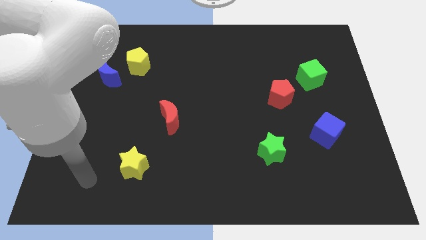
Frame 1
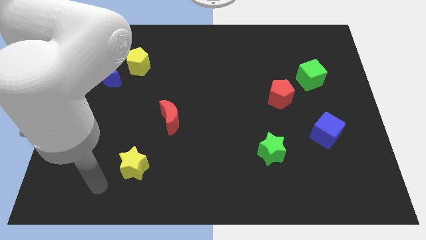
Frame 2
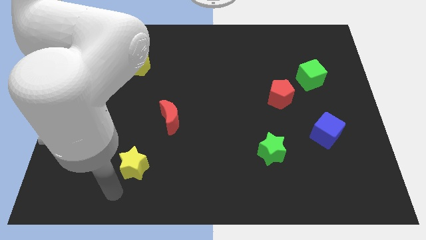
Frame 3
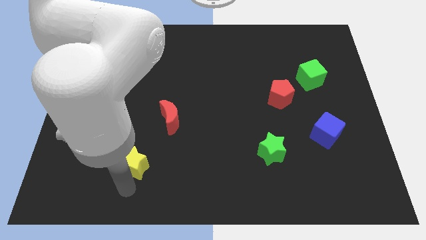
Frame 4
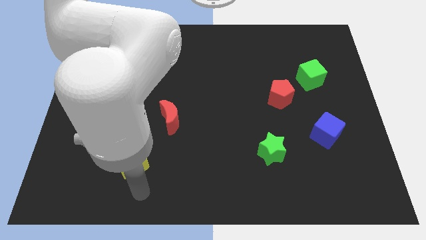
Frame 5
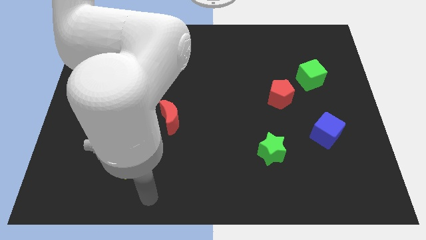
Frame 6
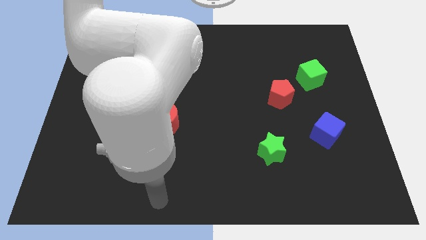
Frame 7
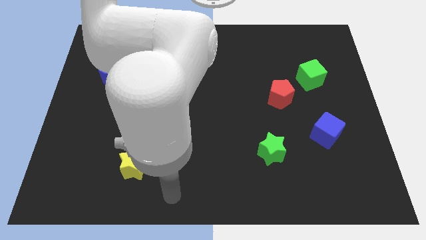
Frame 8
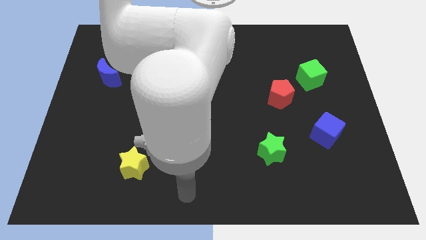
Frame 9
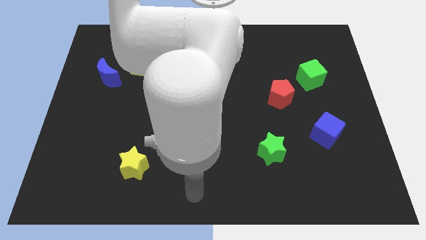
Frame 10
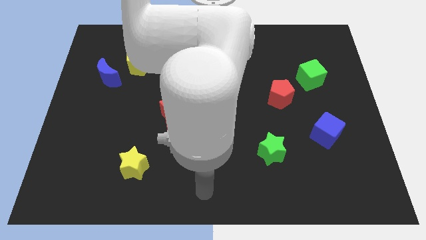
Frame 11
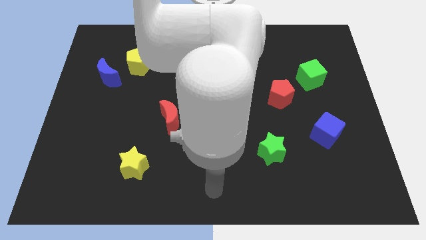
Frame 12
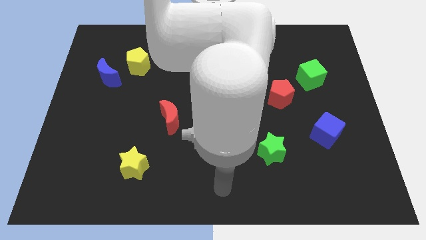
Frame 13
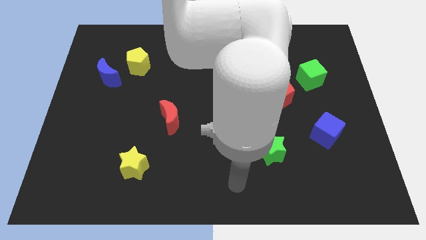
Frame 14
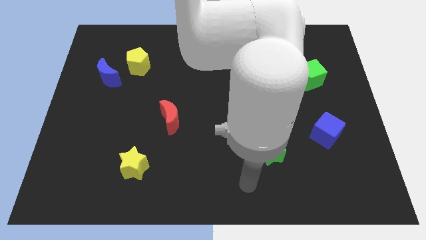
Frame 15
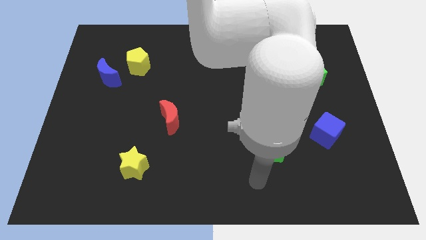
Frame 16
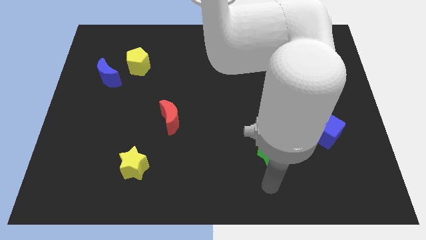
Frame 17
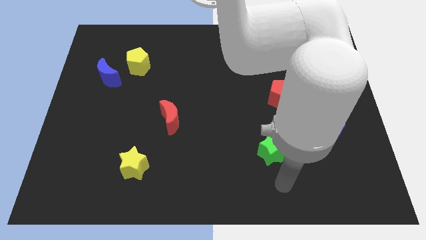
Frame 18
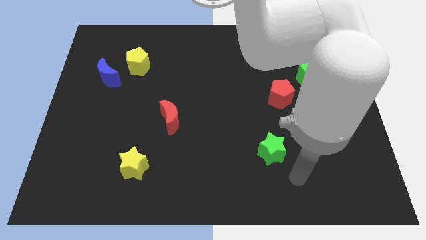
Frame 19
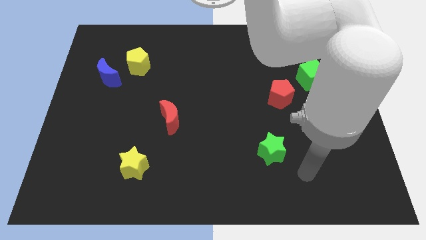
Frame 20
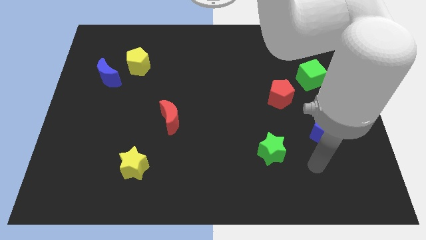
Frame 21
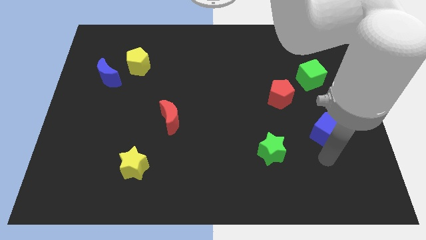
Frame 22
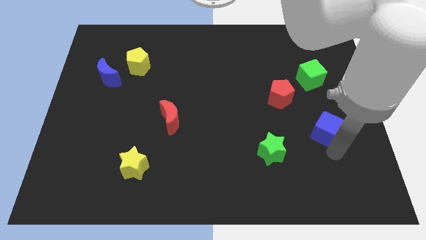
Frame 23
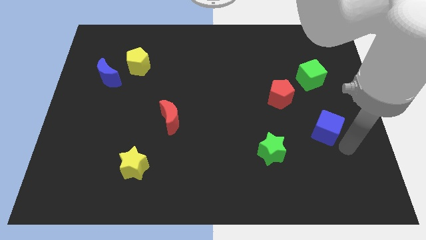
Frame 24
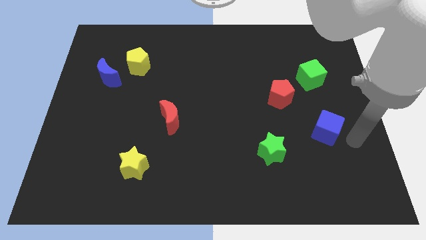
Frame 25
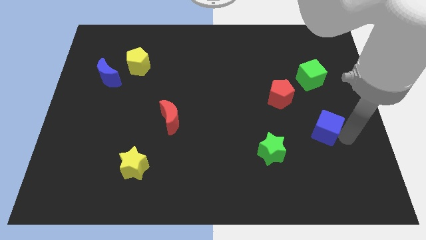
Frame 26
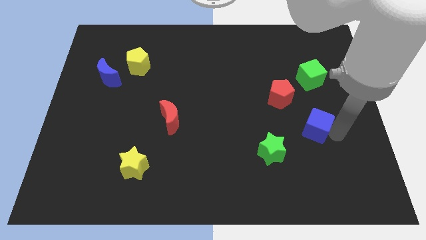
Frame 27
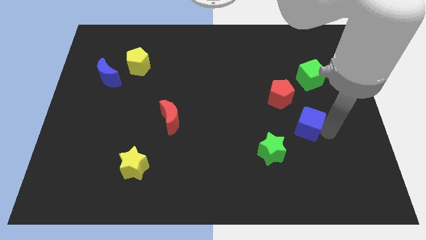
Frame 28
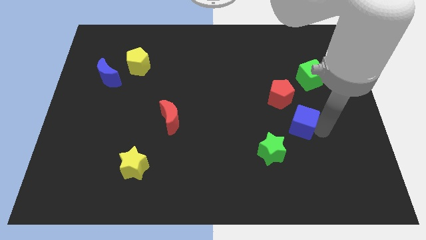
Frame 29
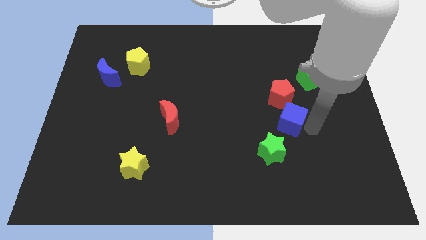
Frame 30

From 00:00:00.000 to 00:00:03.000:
push the blue cube somewhat up and to the left

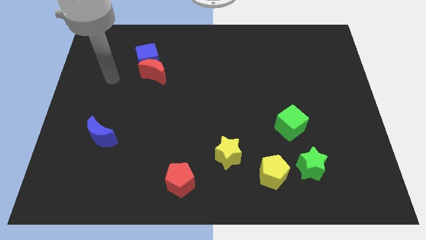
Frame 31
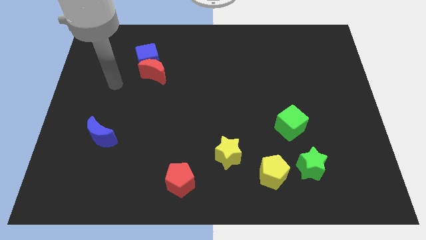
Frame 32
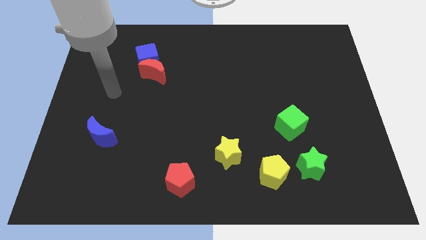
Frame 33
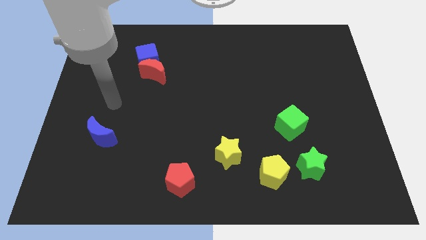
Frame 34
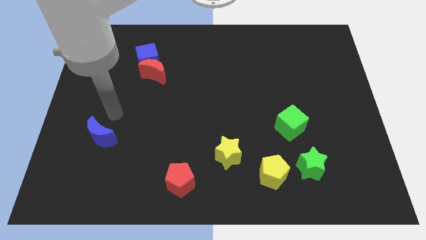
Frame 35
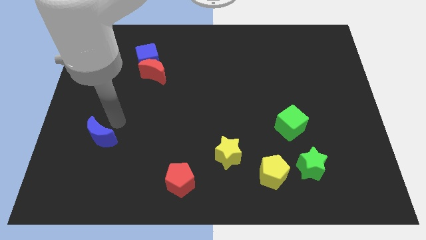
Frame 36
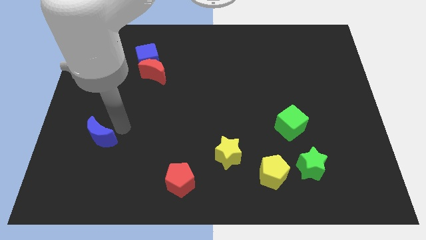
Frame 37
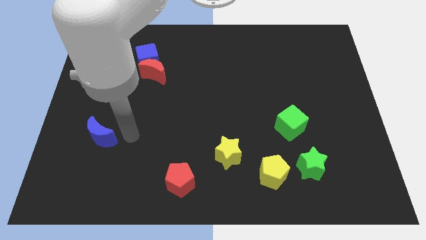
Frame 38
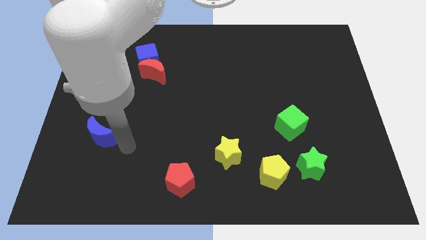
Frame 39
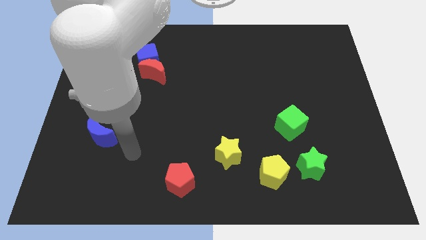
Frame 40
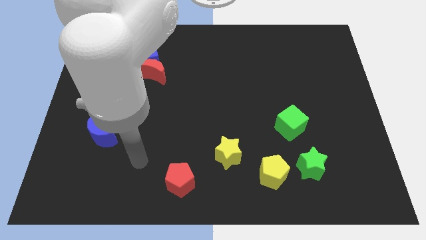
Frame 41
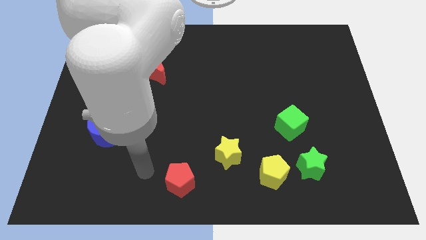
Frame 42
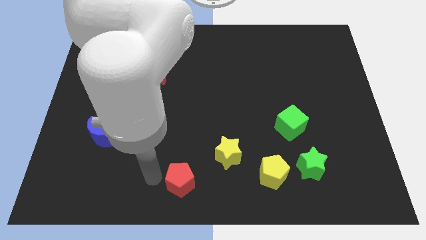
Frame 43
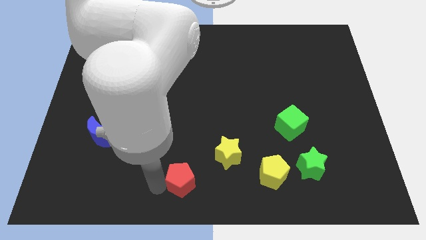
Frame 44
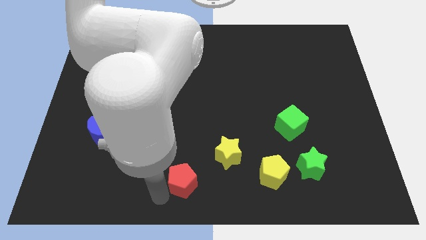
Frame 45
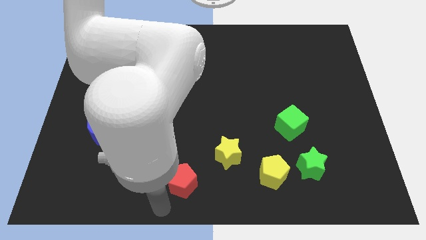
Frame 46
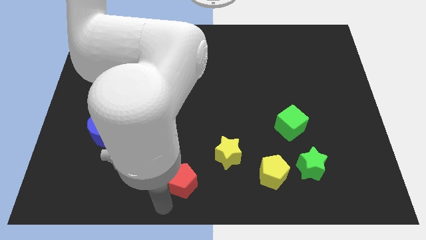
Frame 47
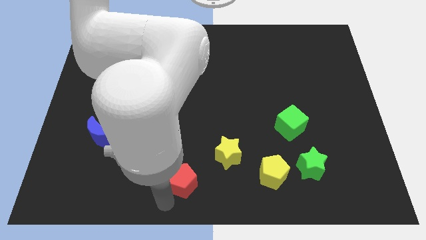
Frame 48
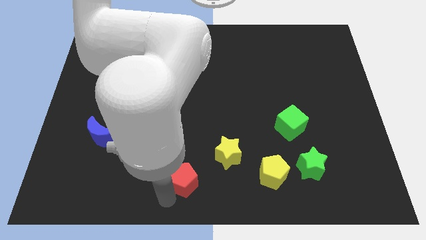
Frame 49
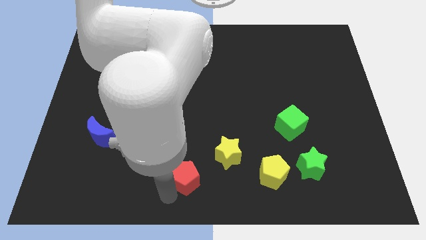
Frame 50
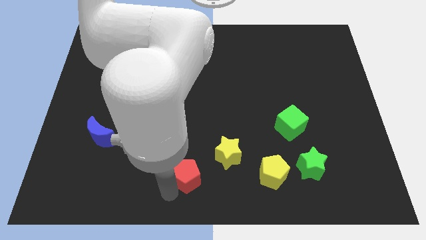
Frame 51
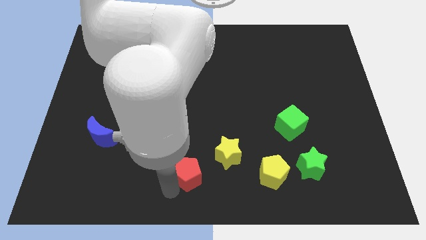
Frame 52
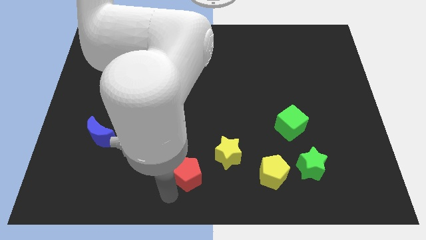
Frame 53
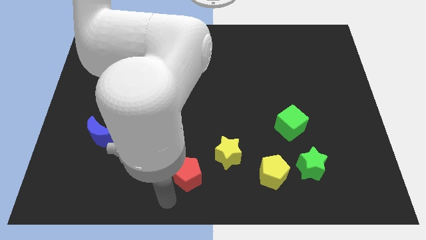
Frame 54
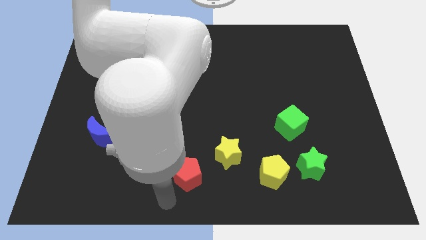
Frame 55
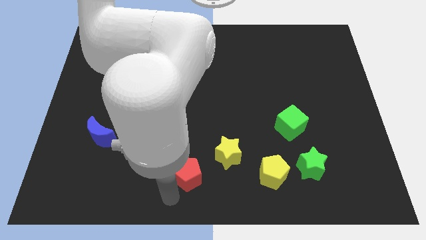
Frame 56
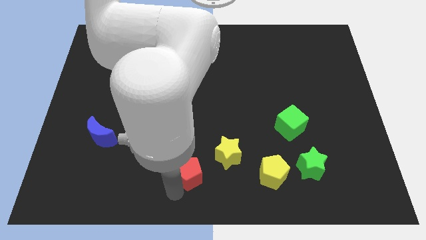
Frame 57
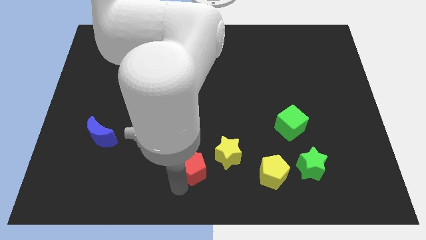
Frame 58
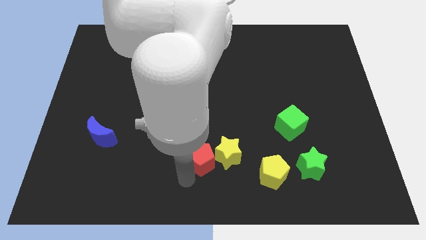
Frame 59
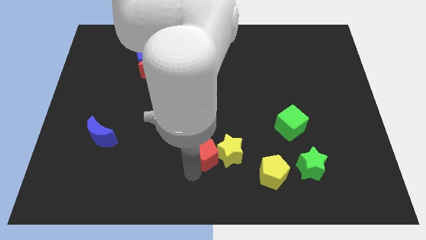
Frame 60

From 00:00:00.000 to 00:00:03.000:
push the red pentagon slightly diagonally up and right

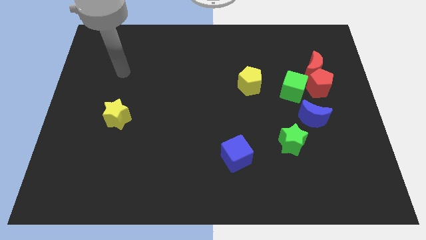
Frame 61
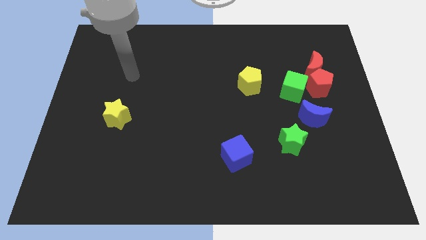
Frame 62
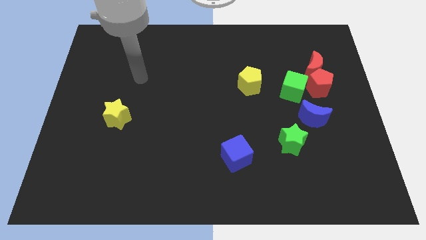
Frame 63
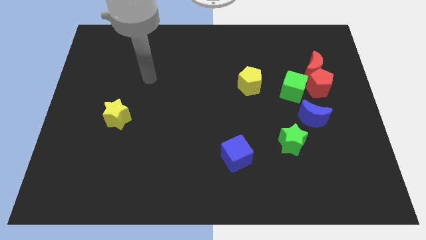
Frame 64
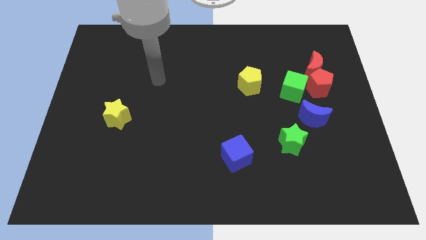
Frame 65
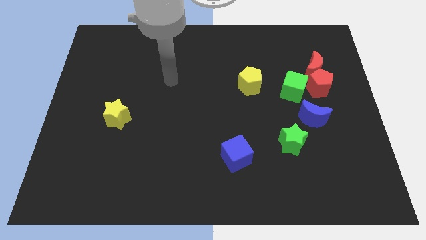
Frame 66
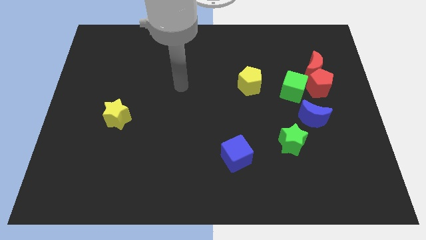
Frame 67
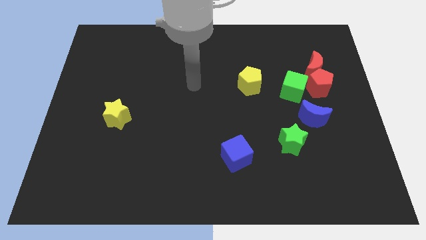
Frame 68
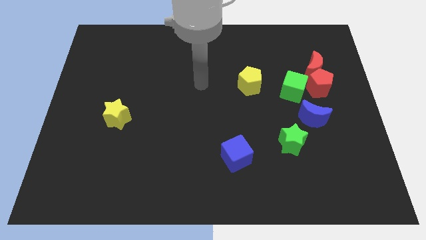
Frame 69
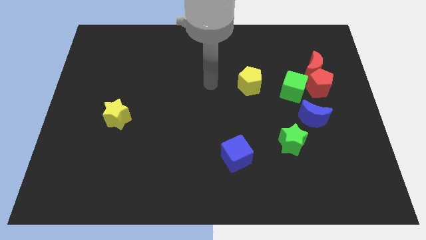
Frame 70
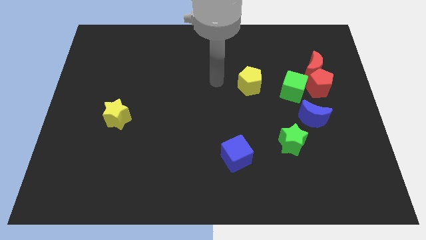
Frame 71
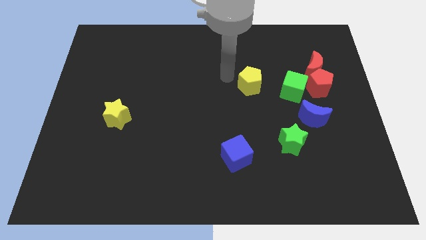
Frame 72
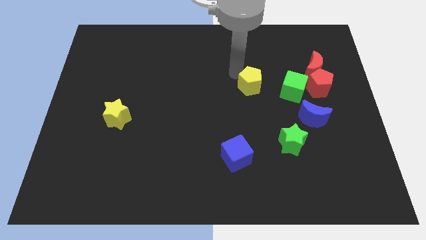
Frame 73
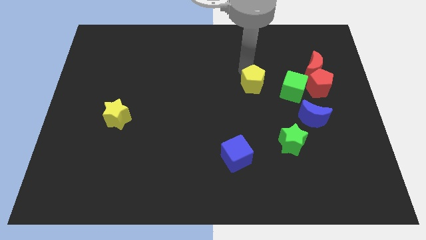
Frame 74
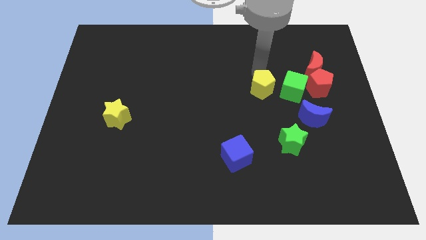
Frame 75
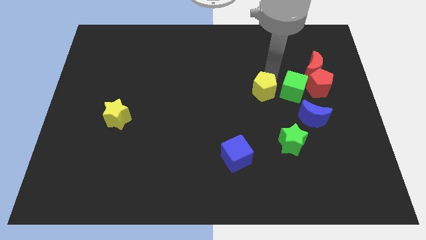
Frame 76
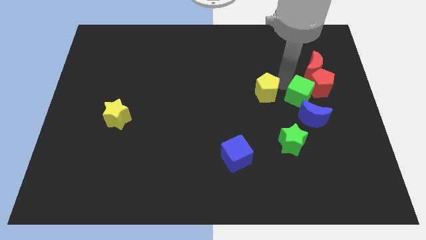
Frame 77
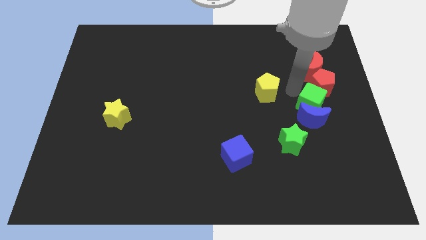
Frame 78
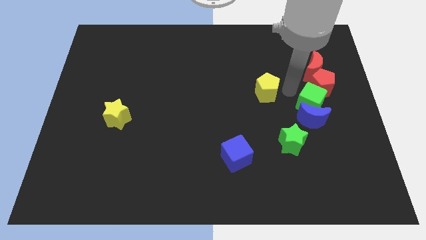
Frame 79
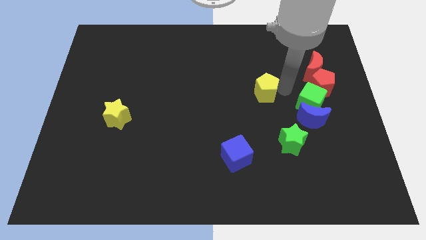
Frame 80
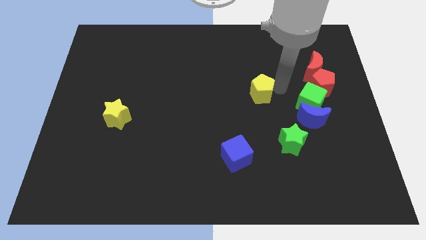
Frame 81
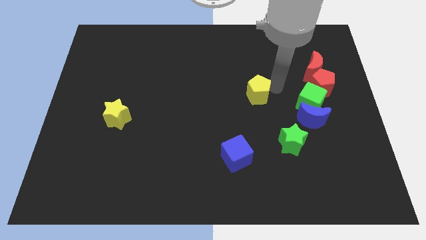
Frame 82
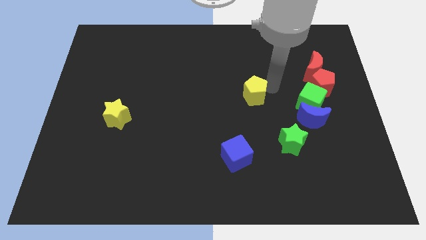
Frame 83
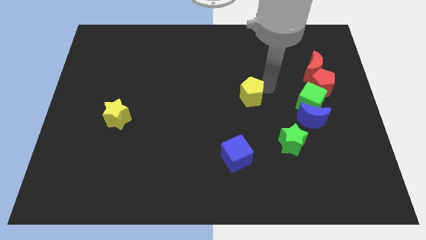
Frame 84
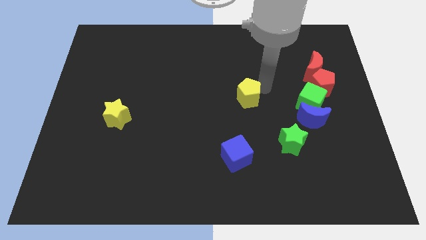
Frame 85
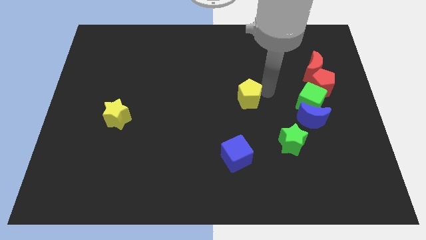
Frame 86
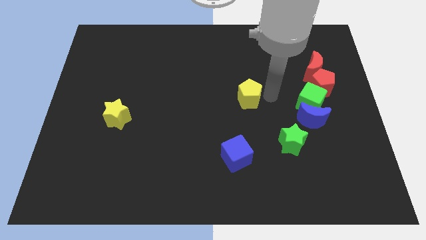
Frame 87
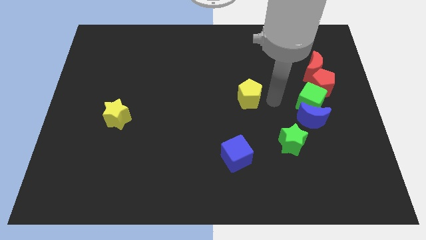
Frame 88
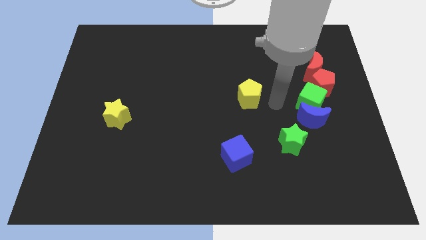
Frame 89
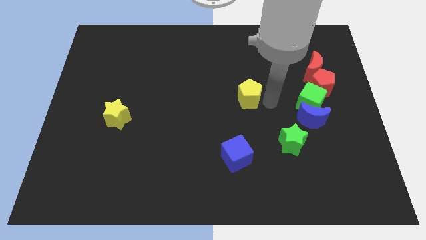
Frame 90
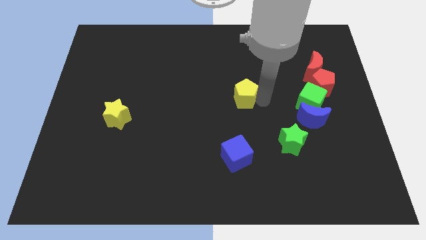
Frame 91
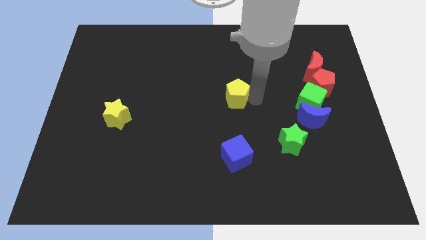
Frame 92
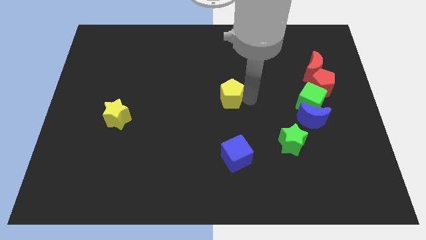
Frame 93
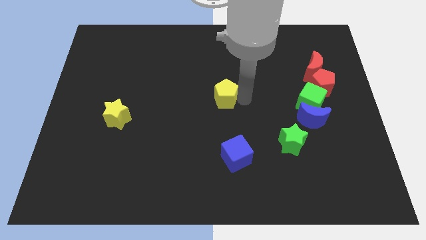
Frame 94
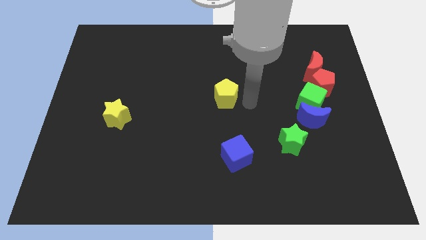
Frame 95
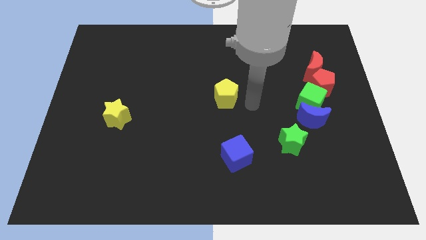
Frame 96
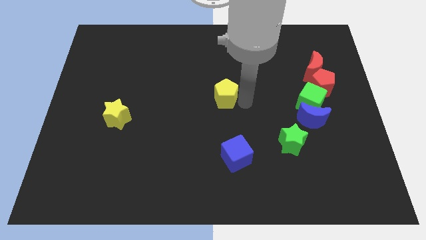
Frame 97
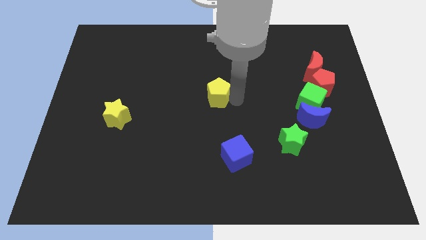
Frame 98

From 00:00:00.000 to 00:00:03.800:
slide the yellow pentagon left somewhat
